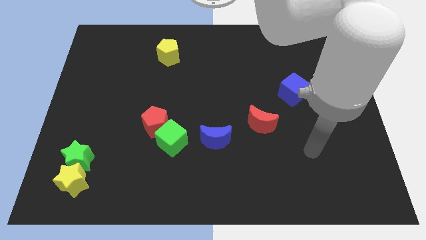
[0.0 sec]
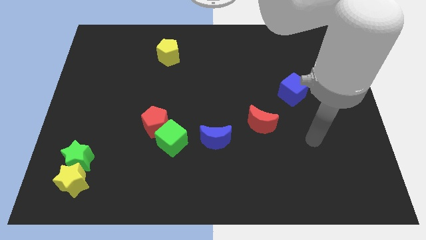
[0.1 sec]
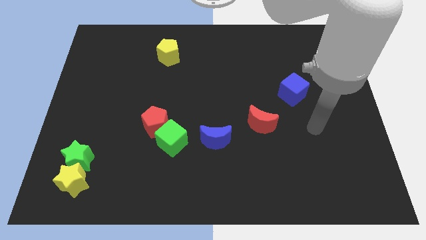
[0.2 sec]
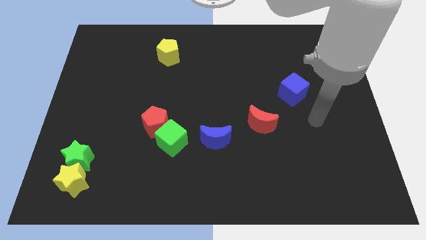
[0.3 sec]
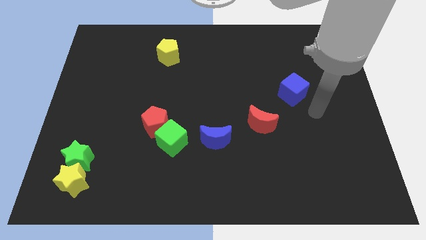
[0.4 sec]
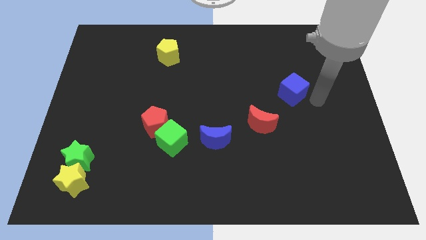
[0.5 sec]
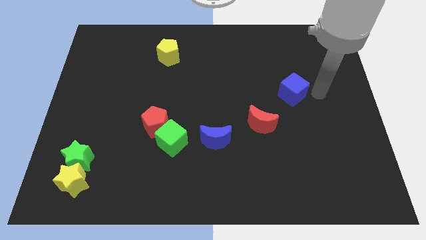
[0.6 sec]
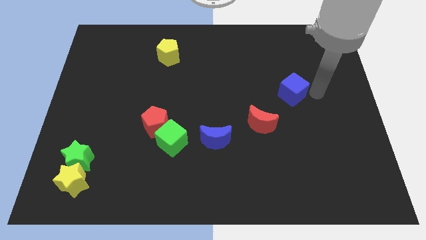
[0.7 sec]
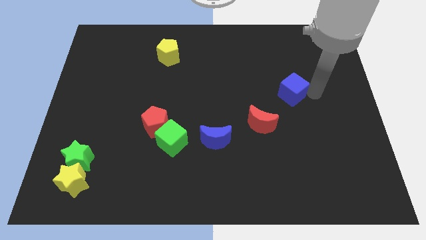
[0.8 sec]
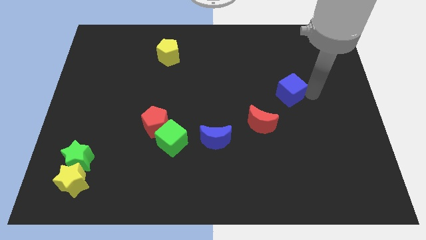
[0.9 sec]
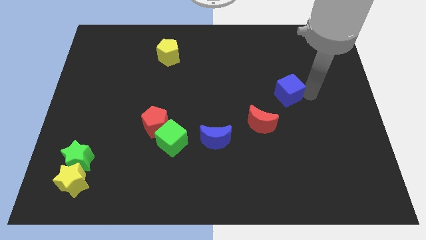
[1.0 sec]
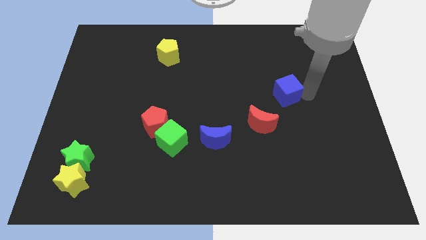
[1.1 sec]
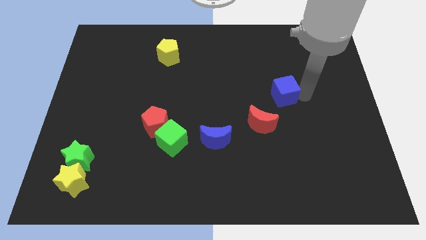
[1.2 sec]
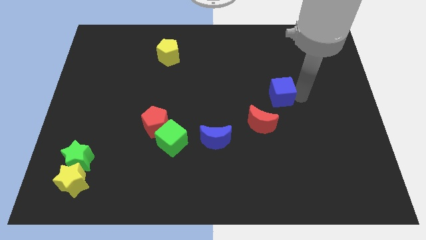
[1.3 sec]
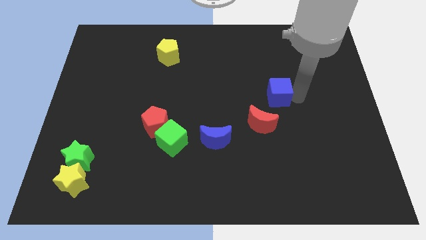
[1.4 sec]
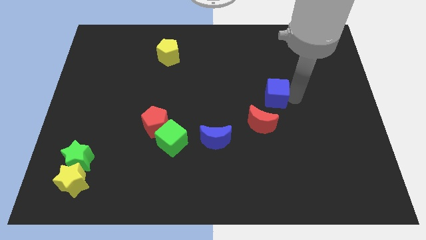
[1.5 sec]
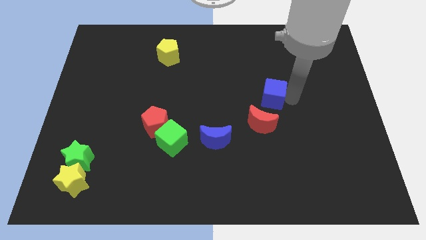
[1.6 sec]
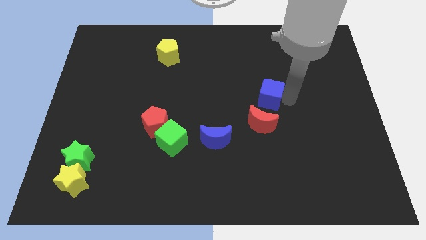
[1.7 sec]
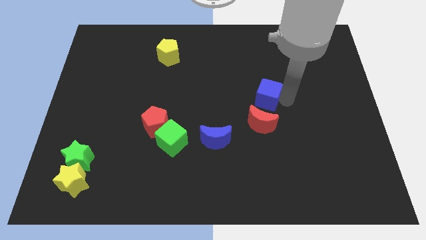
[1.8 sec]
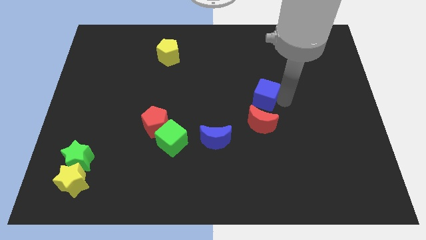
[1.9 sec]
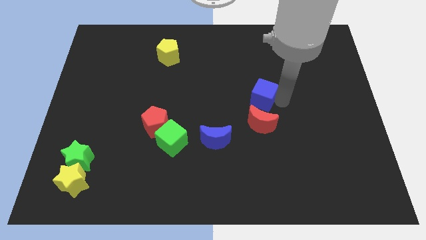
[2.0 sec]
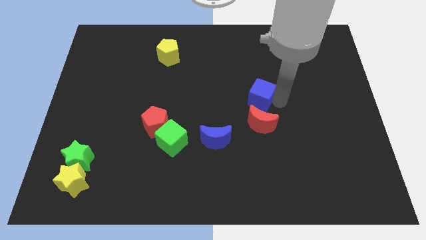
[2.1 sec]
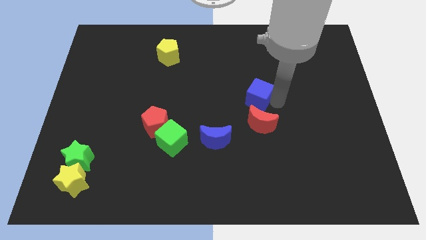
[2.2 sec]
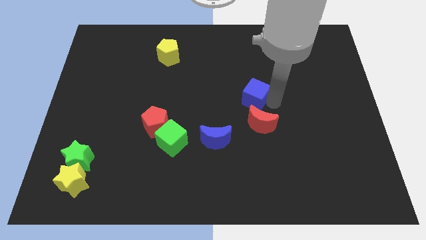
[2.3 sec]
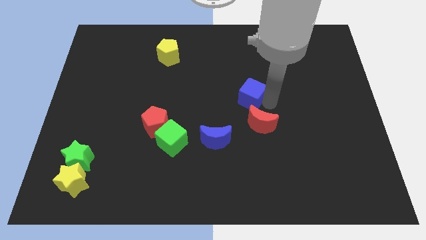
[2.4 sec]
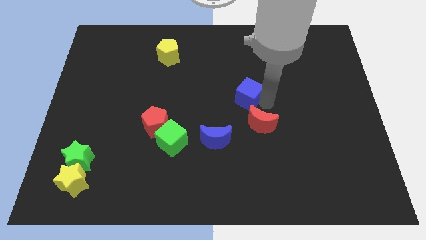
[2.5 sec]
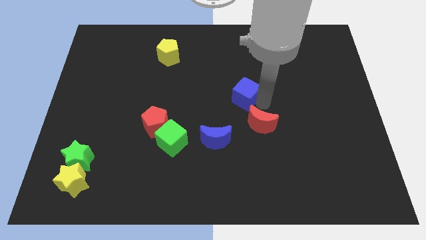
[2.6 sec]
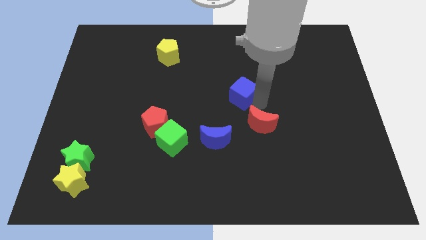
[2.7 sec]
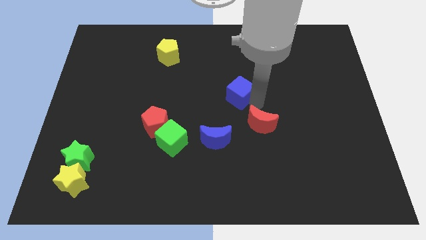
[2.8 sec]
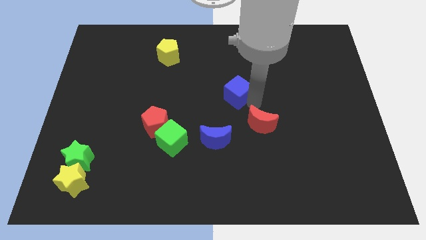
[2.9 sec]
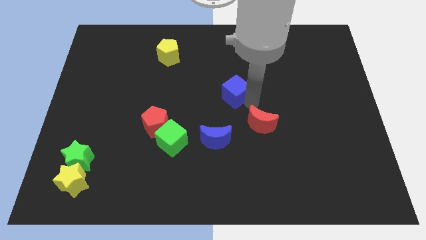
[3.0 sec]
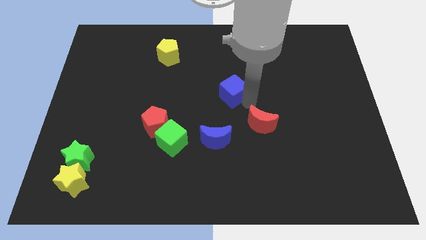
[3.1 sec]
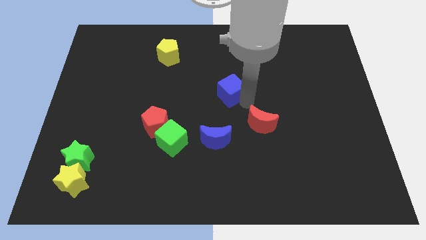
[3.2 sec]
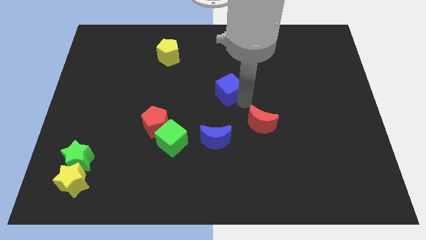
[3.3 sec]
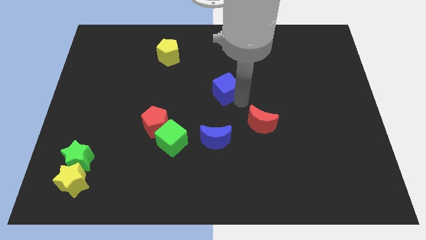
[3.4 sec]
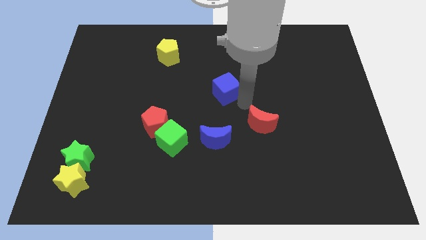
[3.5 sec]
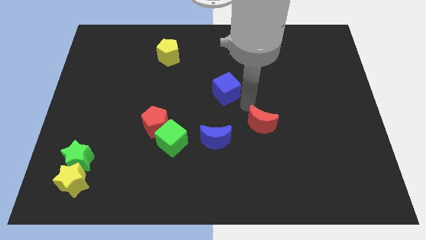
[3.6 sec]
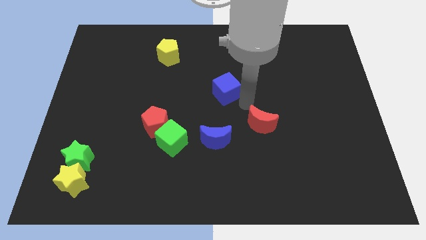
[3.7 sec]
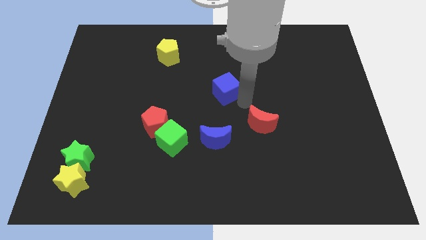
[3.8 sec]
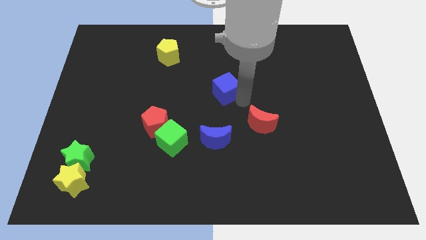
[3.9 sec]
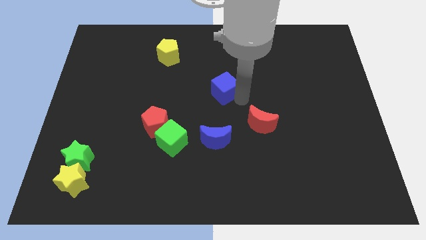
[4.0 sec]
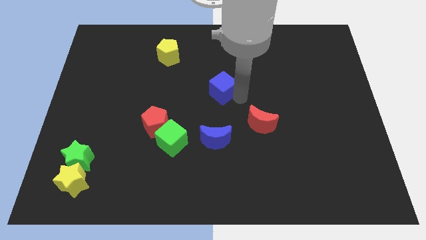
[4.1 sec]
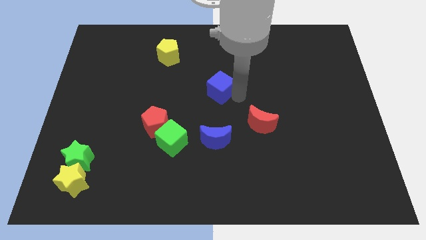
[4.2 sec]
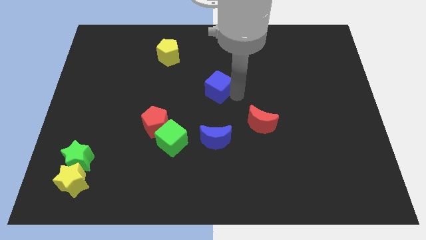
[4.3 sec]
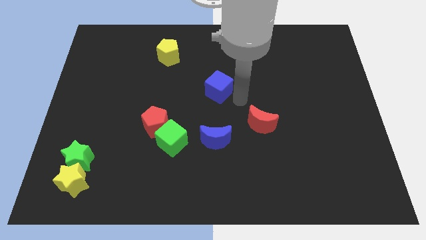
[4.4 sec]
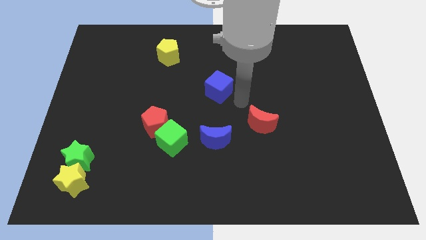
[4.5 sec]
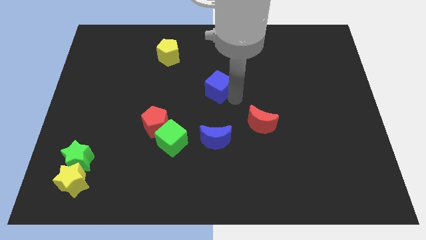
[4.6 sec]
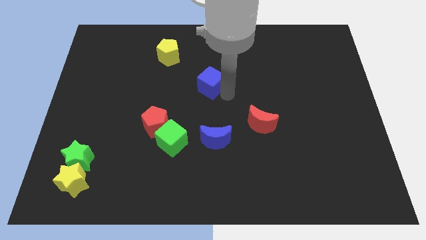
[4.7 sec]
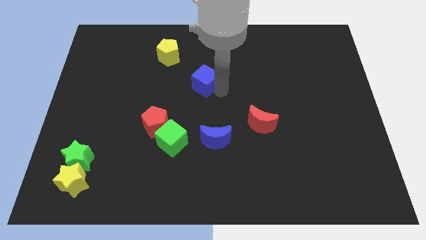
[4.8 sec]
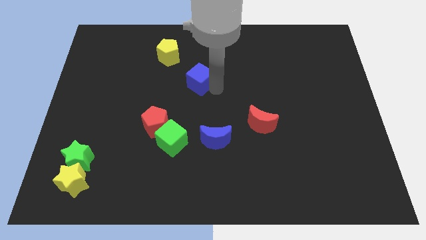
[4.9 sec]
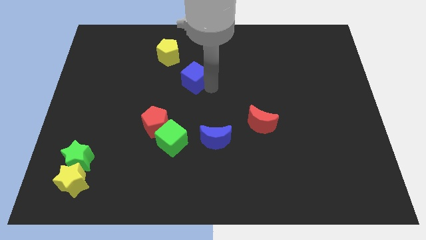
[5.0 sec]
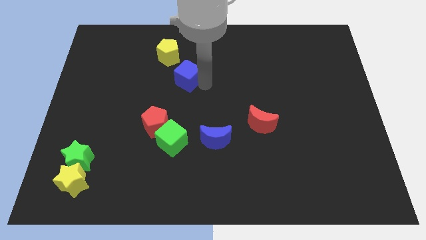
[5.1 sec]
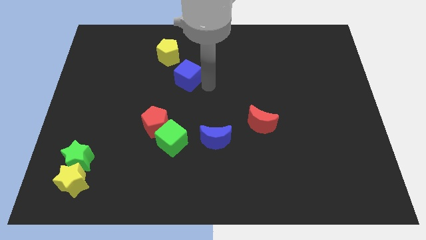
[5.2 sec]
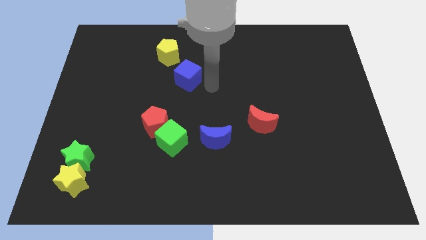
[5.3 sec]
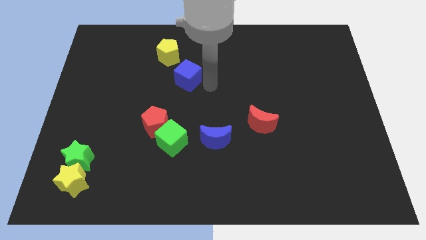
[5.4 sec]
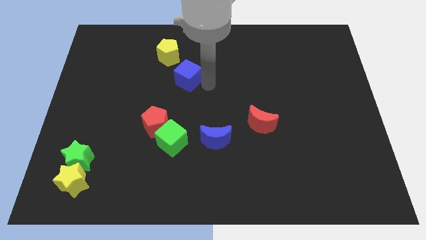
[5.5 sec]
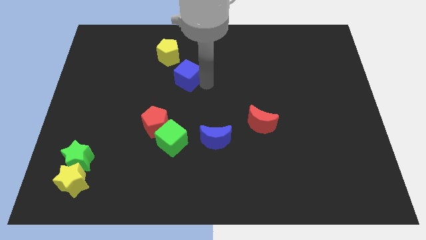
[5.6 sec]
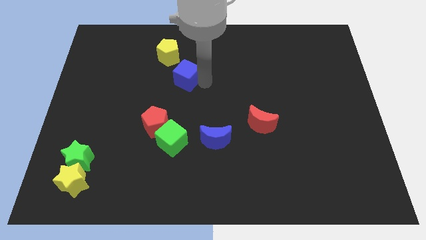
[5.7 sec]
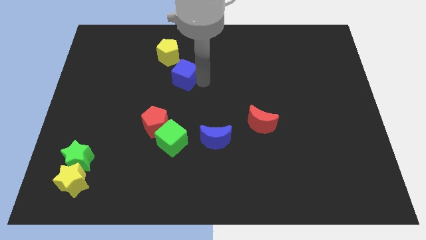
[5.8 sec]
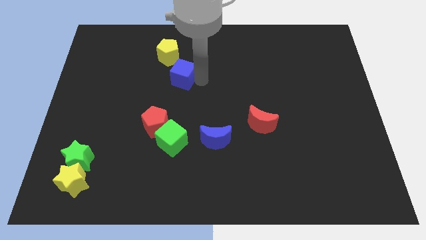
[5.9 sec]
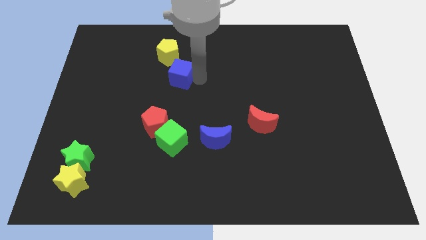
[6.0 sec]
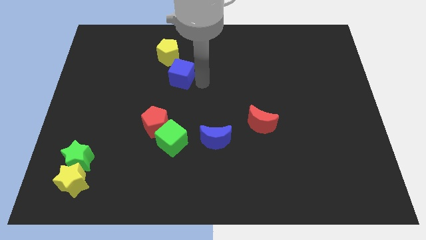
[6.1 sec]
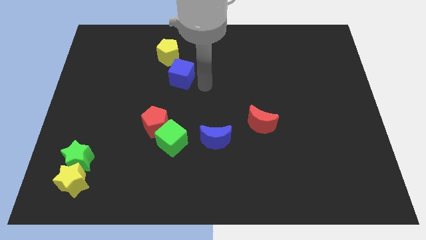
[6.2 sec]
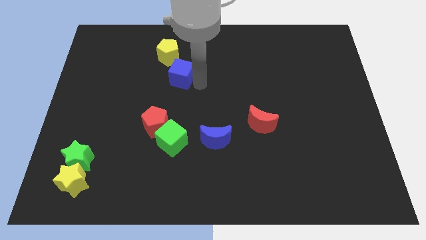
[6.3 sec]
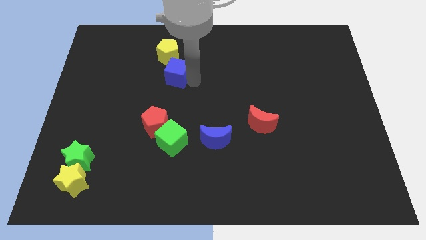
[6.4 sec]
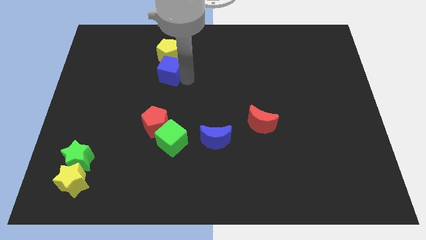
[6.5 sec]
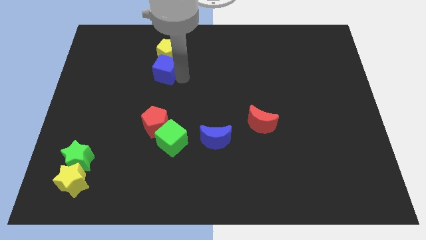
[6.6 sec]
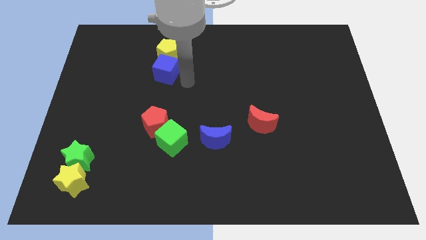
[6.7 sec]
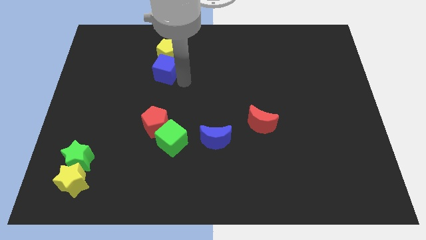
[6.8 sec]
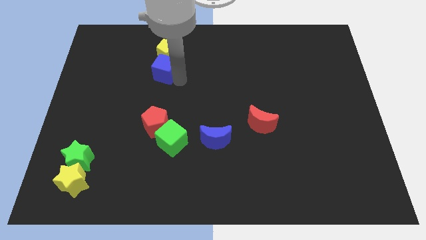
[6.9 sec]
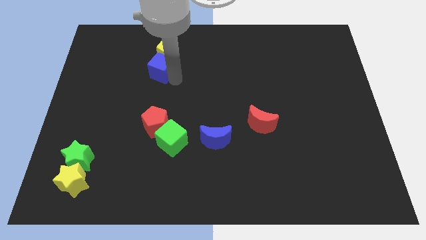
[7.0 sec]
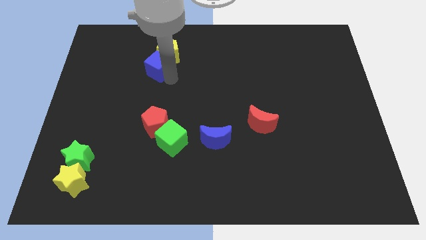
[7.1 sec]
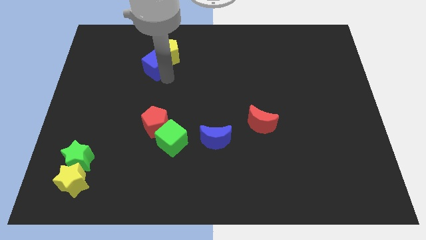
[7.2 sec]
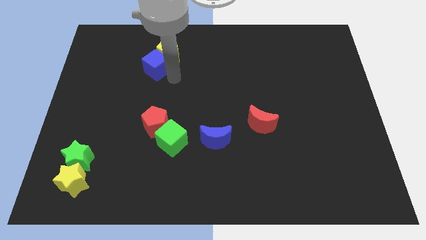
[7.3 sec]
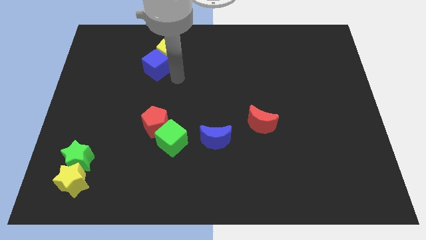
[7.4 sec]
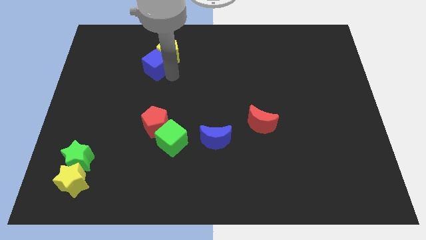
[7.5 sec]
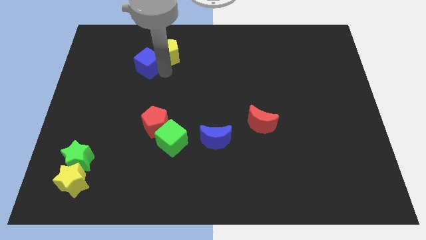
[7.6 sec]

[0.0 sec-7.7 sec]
move the blue cube to the left side of the yellow pentagon
